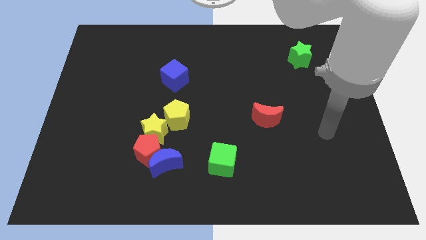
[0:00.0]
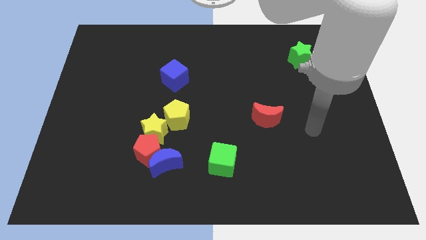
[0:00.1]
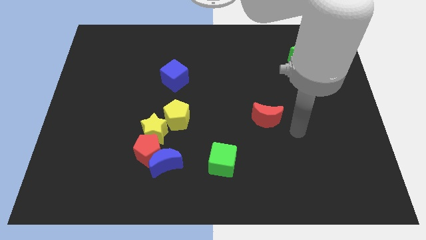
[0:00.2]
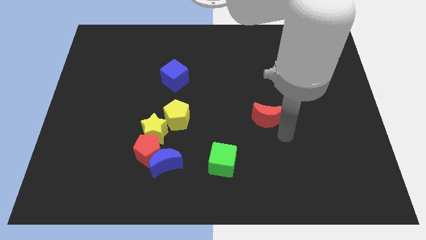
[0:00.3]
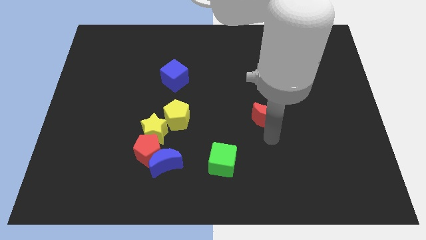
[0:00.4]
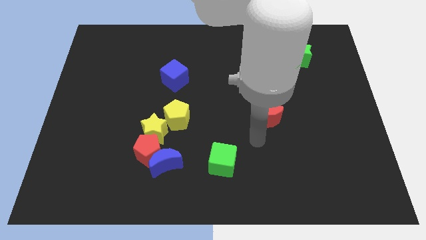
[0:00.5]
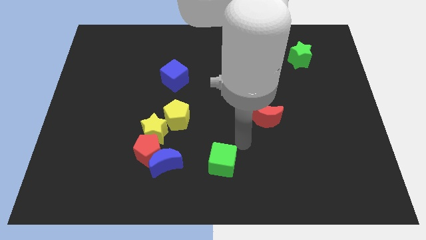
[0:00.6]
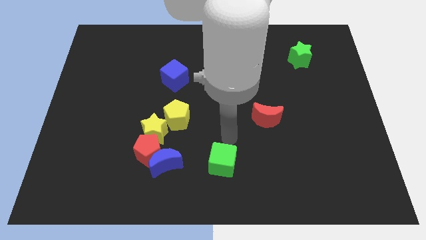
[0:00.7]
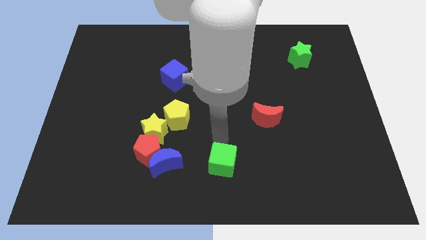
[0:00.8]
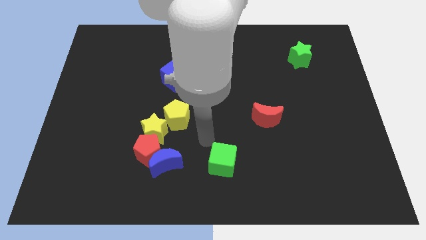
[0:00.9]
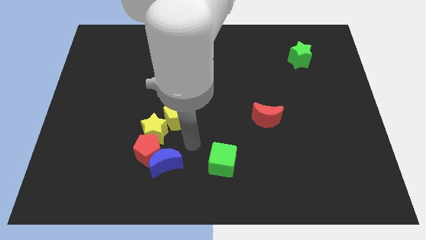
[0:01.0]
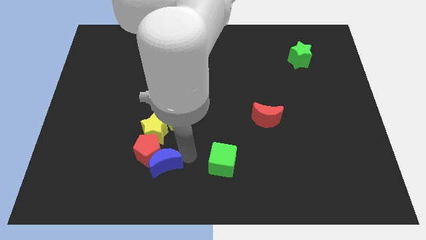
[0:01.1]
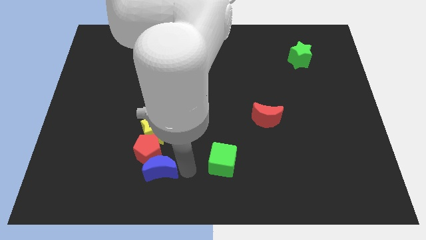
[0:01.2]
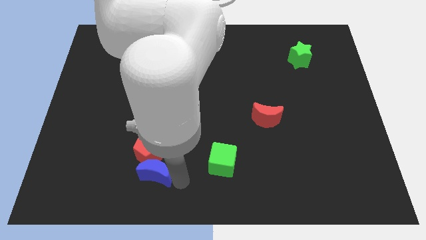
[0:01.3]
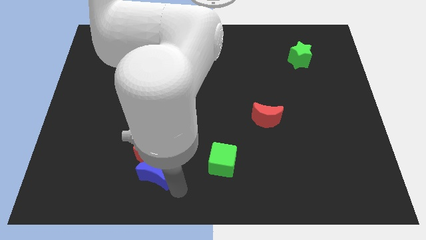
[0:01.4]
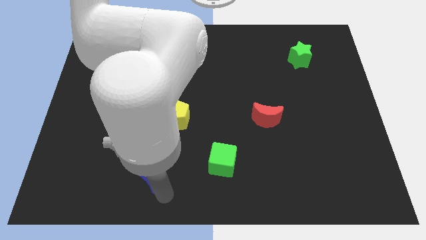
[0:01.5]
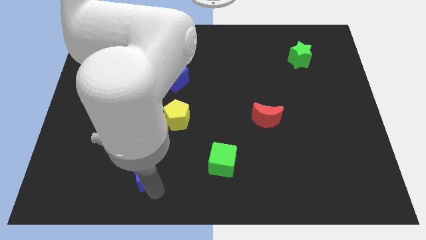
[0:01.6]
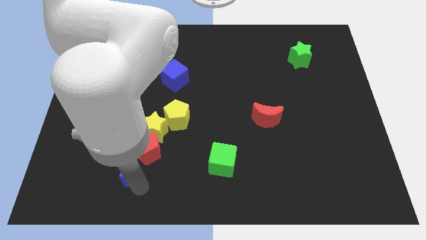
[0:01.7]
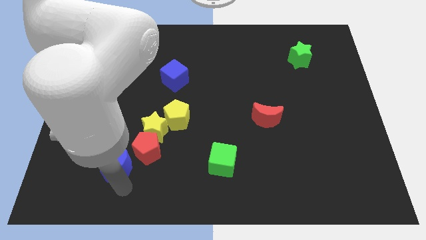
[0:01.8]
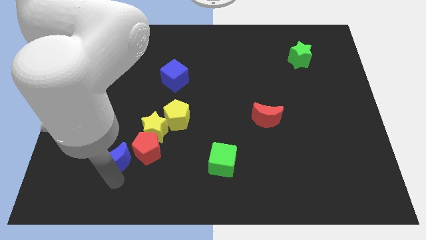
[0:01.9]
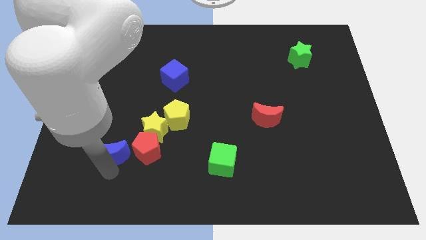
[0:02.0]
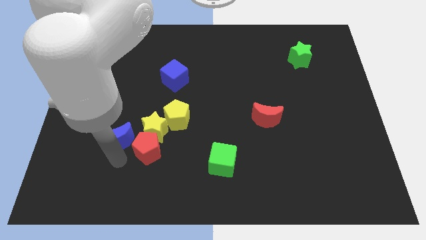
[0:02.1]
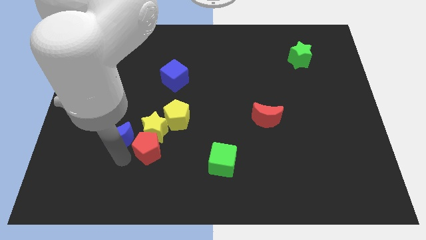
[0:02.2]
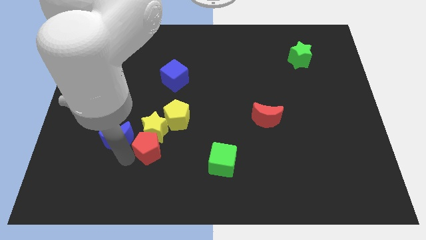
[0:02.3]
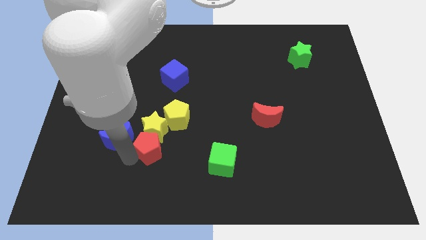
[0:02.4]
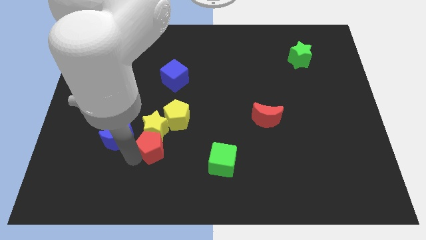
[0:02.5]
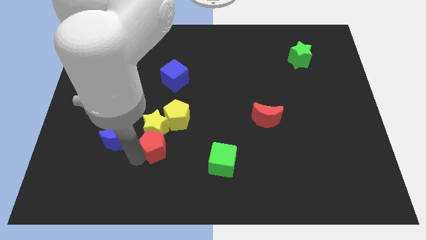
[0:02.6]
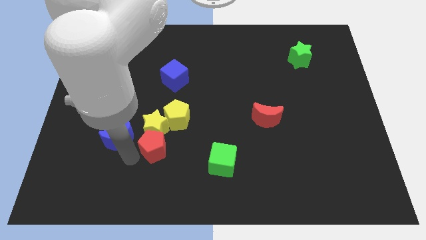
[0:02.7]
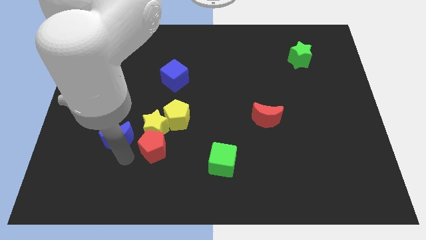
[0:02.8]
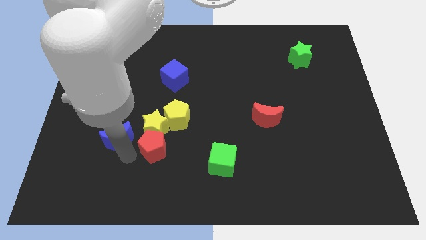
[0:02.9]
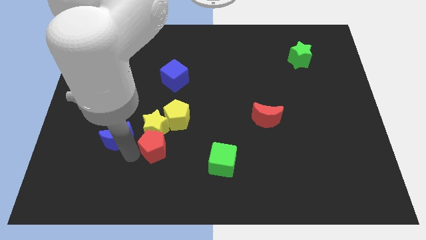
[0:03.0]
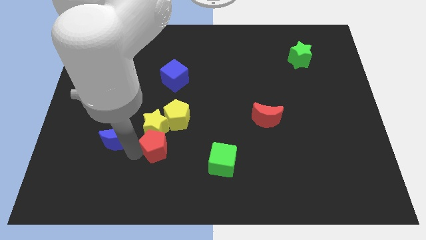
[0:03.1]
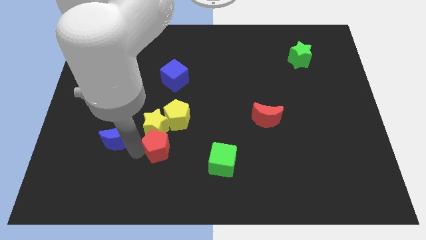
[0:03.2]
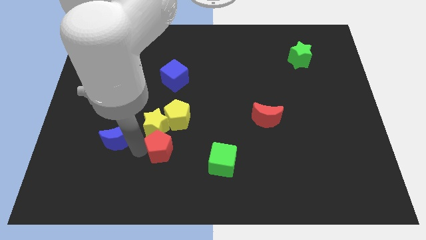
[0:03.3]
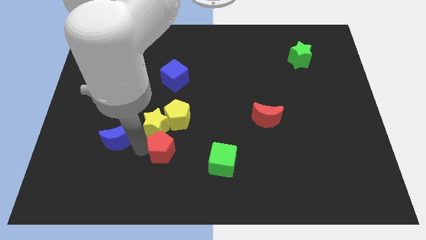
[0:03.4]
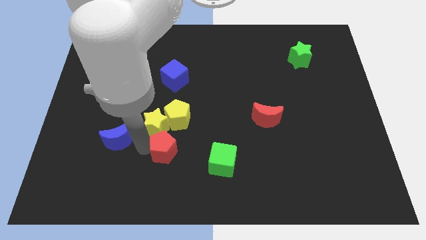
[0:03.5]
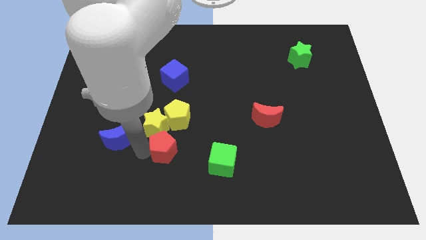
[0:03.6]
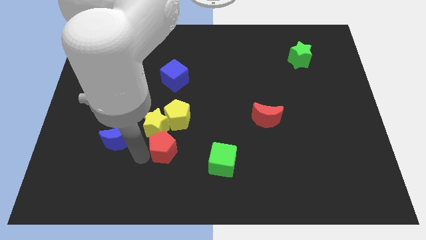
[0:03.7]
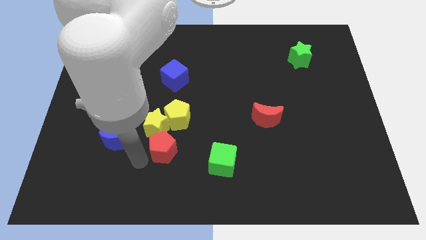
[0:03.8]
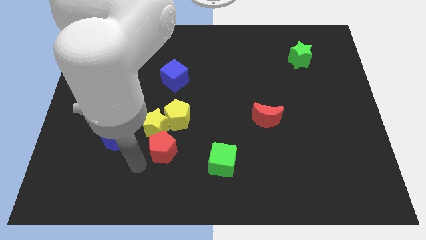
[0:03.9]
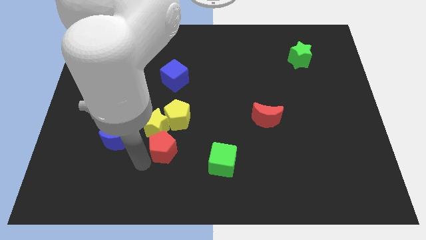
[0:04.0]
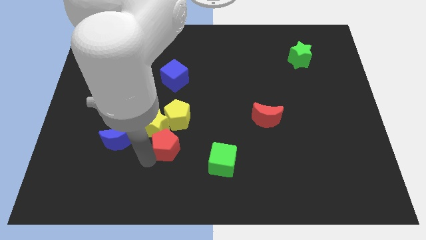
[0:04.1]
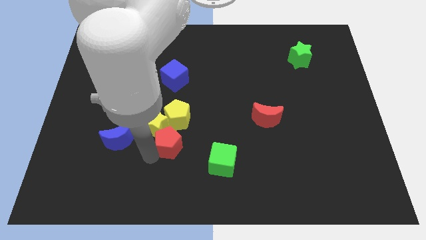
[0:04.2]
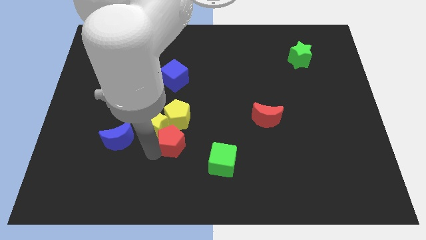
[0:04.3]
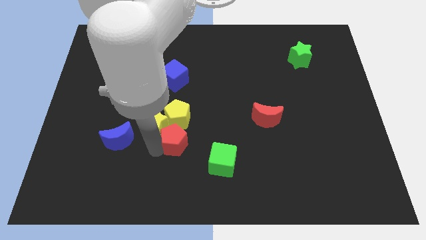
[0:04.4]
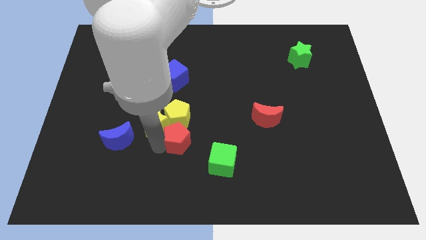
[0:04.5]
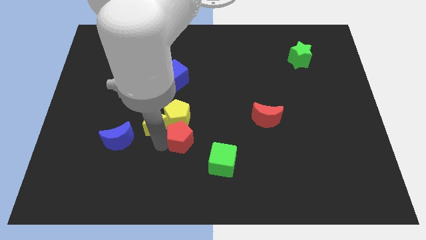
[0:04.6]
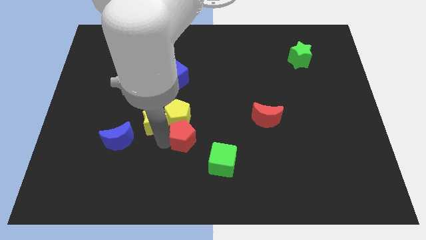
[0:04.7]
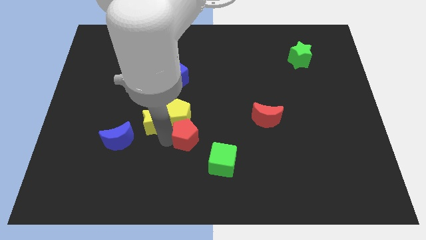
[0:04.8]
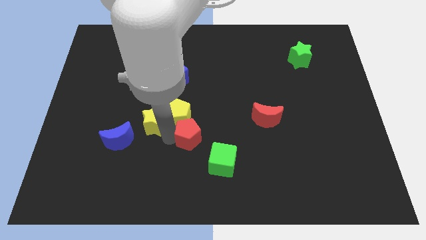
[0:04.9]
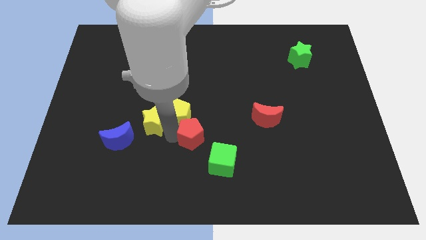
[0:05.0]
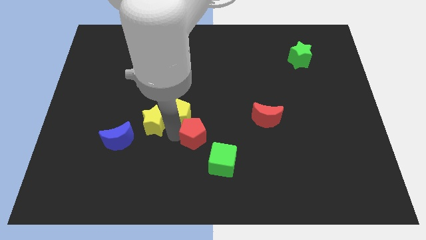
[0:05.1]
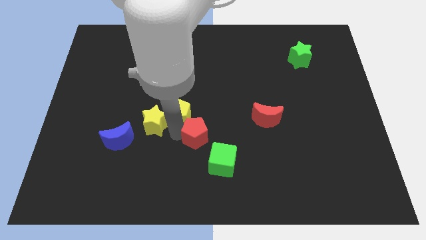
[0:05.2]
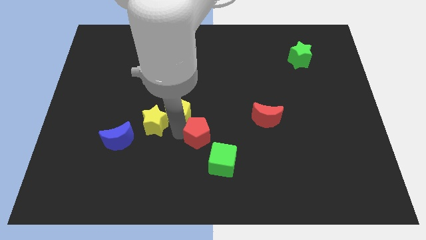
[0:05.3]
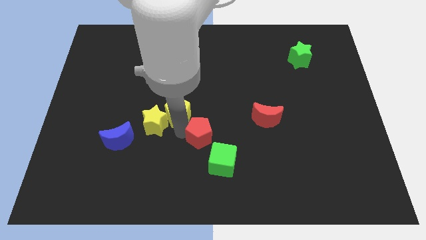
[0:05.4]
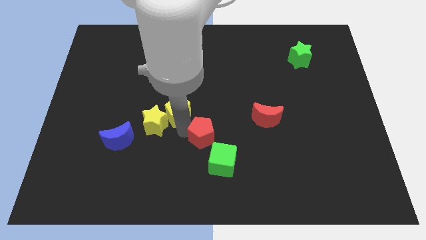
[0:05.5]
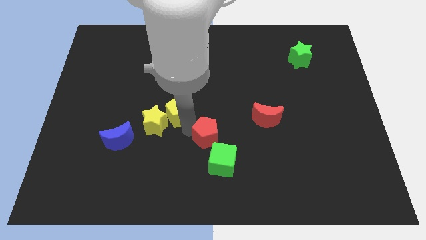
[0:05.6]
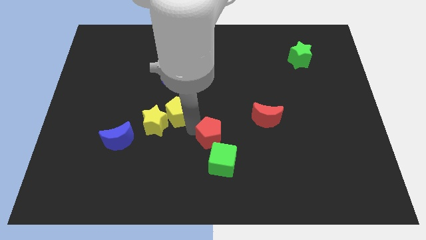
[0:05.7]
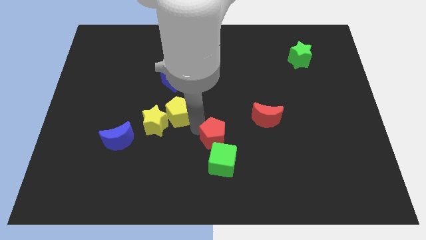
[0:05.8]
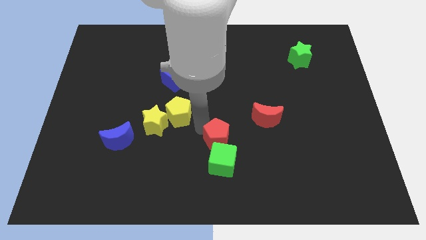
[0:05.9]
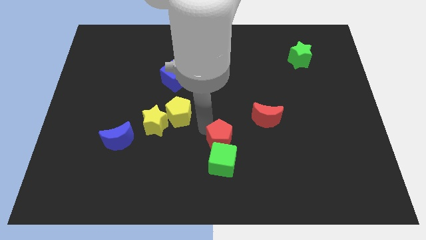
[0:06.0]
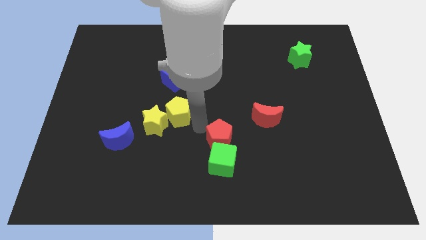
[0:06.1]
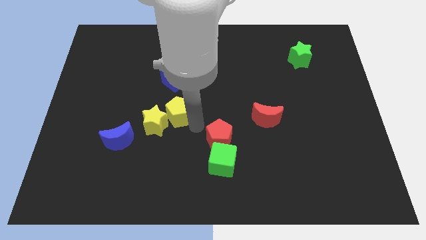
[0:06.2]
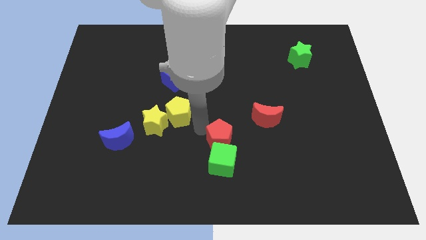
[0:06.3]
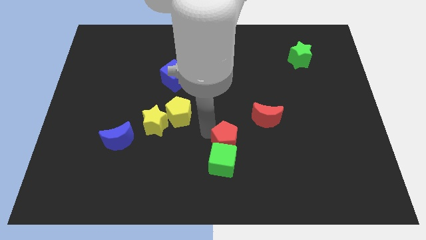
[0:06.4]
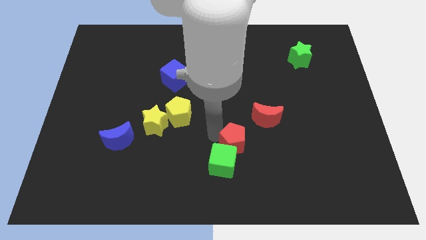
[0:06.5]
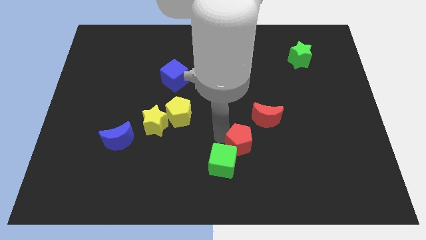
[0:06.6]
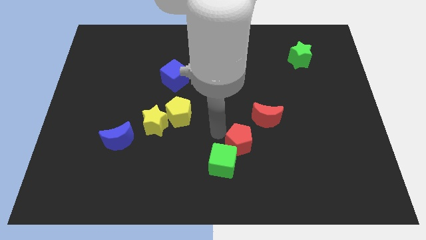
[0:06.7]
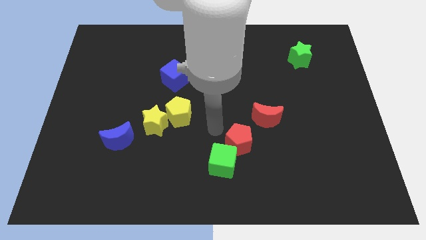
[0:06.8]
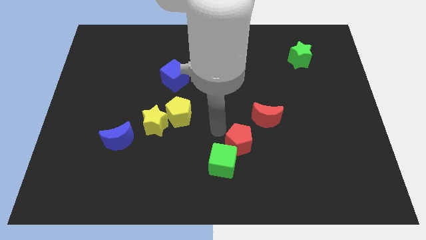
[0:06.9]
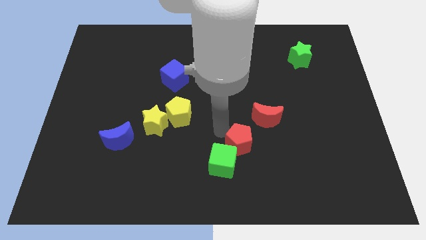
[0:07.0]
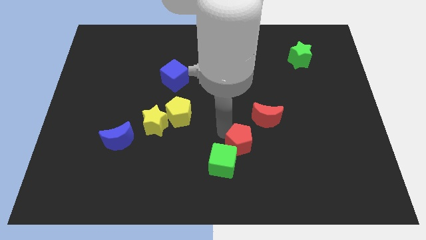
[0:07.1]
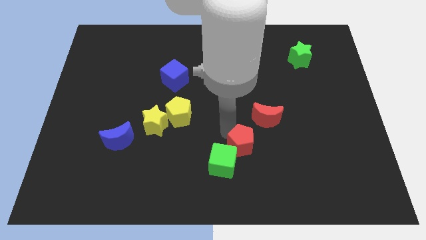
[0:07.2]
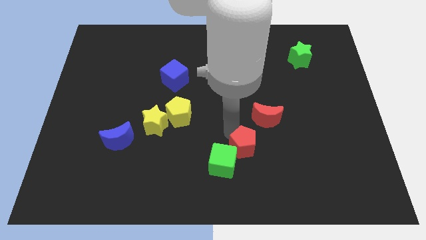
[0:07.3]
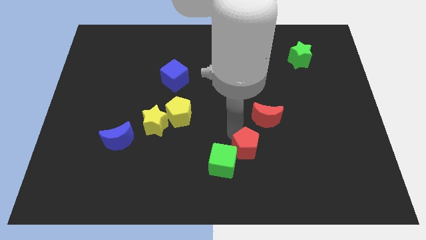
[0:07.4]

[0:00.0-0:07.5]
put the red pentagon to the bottom of the red moon
